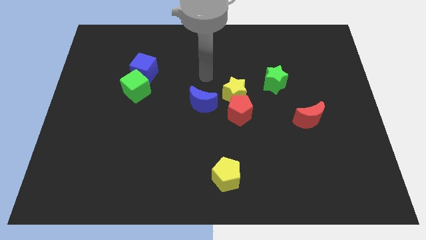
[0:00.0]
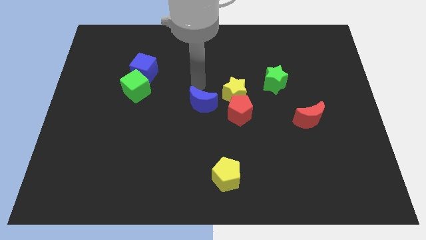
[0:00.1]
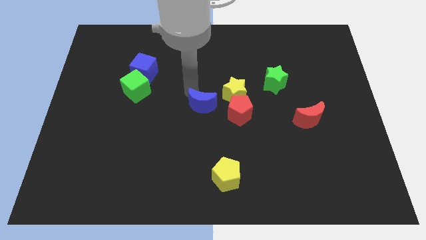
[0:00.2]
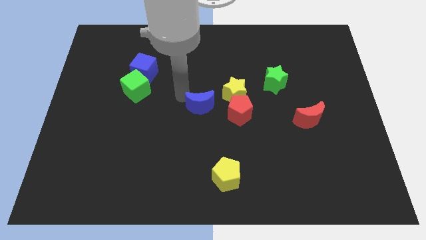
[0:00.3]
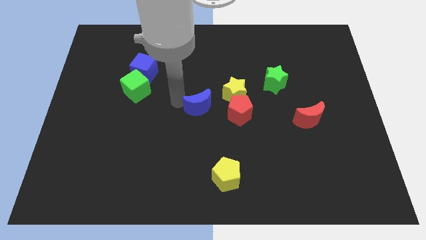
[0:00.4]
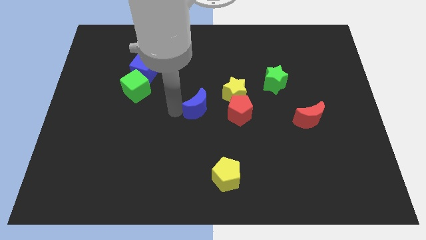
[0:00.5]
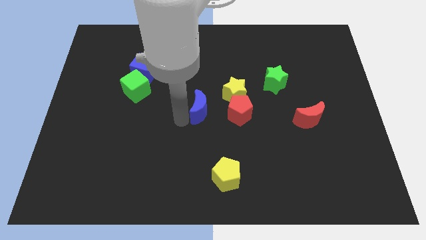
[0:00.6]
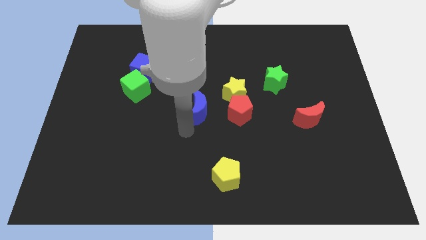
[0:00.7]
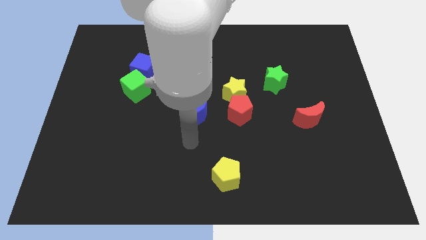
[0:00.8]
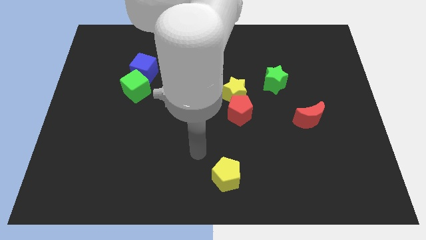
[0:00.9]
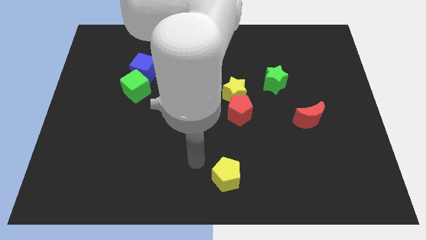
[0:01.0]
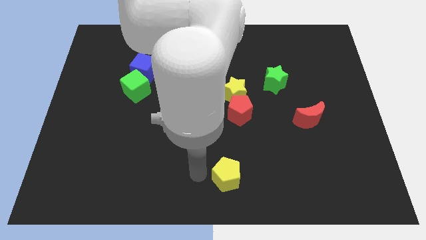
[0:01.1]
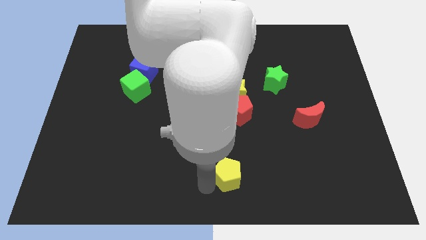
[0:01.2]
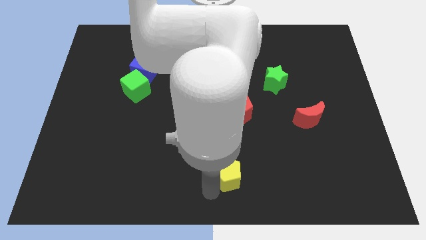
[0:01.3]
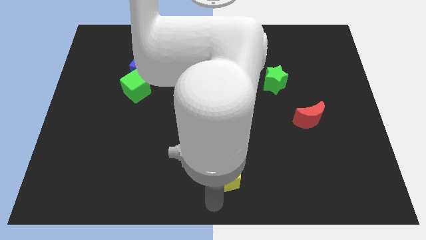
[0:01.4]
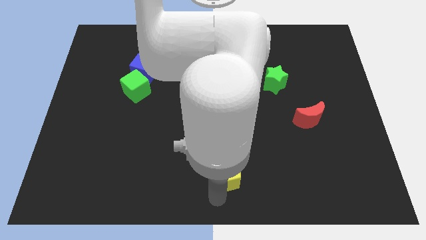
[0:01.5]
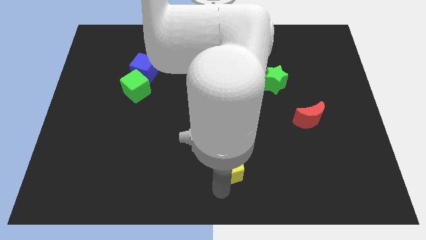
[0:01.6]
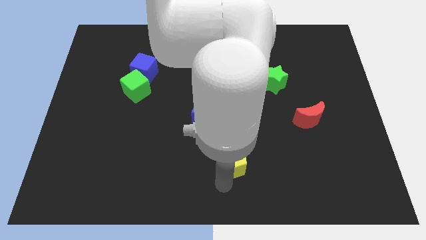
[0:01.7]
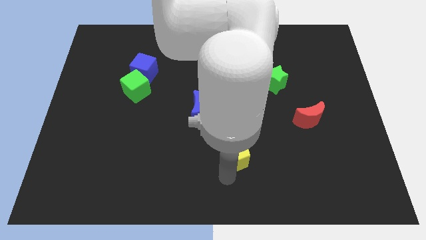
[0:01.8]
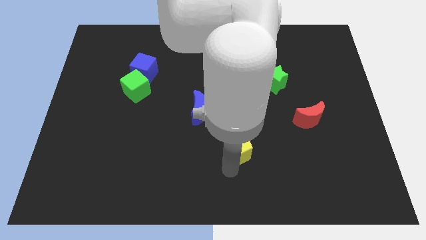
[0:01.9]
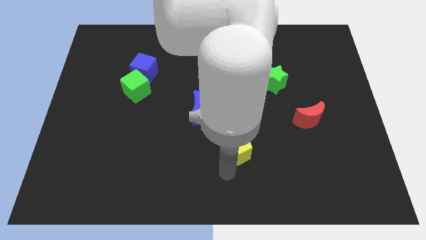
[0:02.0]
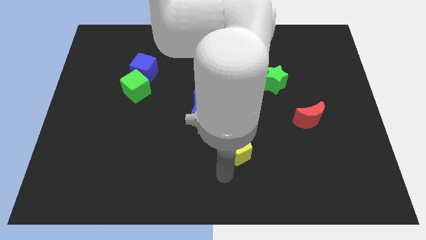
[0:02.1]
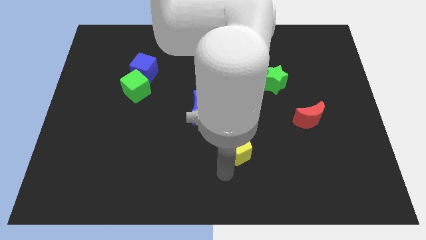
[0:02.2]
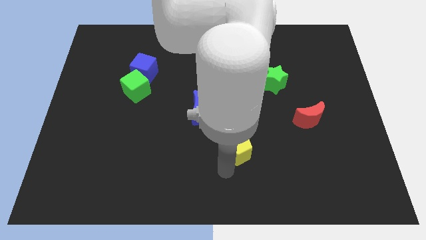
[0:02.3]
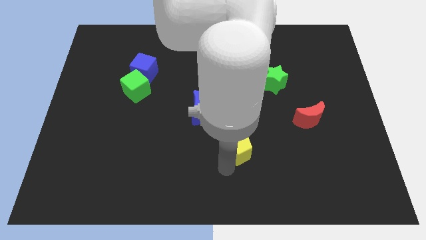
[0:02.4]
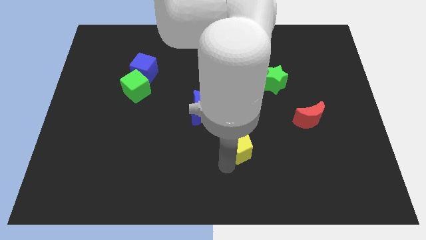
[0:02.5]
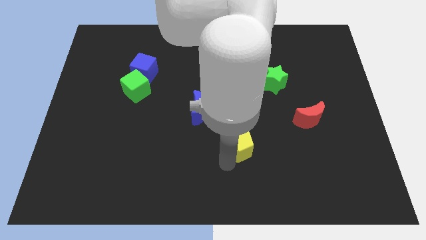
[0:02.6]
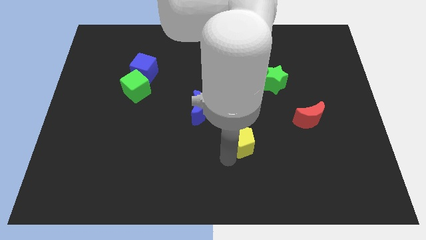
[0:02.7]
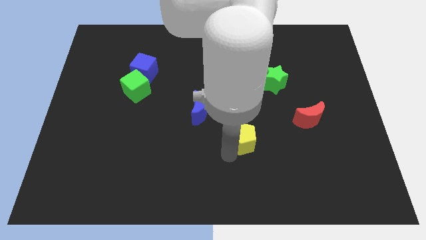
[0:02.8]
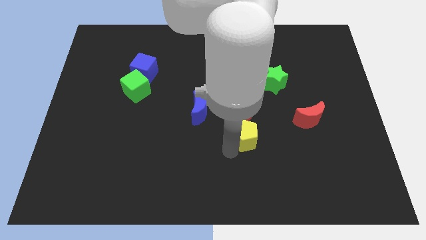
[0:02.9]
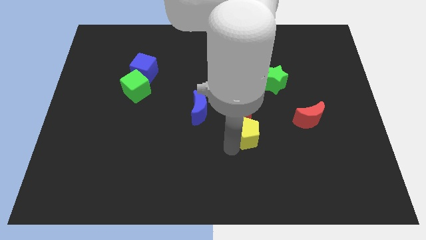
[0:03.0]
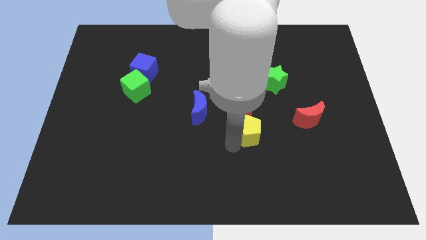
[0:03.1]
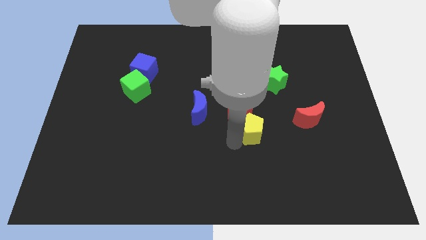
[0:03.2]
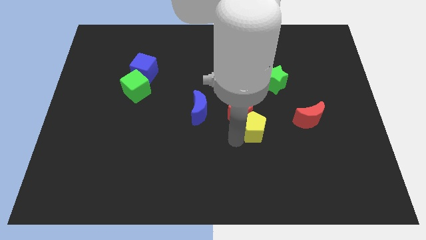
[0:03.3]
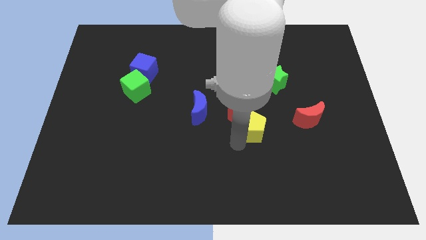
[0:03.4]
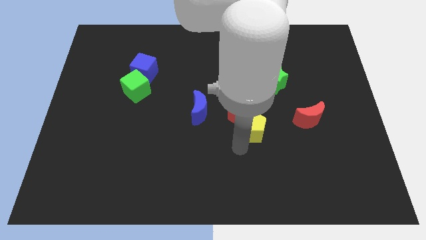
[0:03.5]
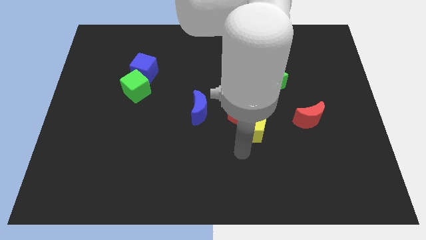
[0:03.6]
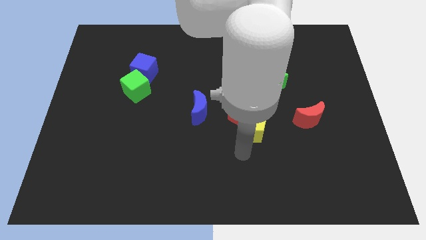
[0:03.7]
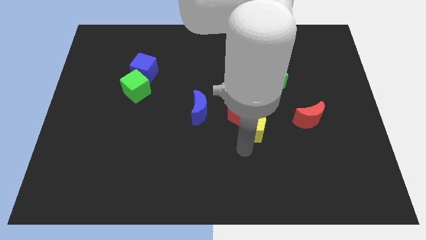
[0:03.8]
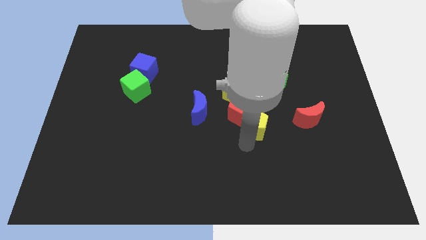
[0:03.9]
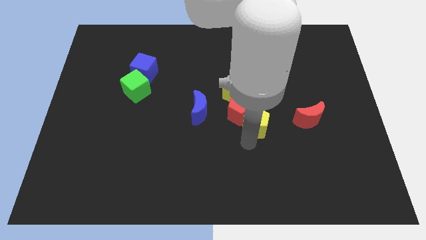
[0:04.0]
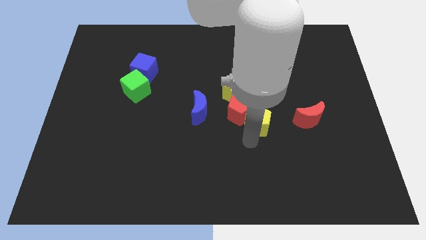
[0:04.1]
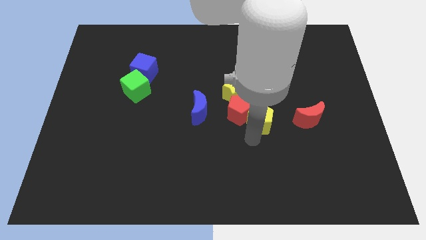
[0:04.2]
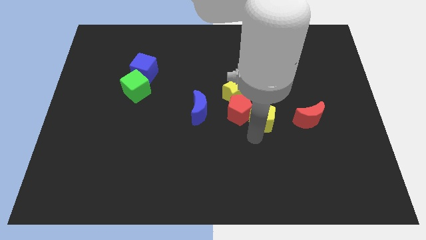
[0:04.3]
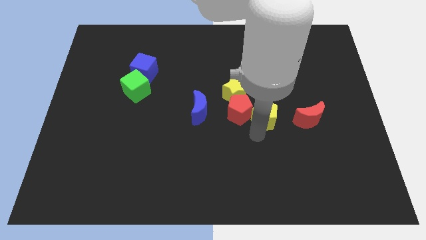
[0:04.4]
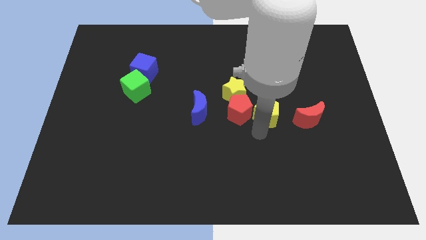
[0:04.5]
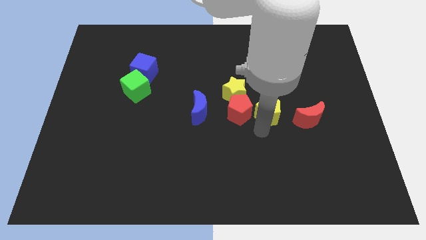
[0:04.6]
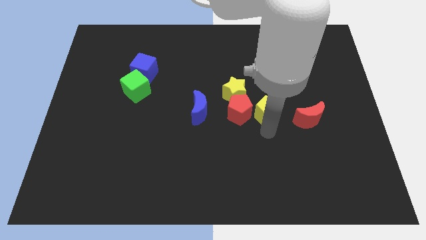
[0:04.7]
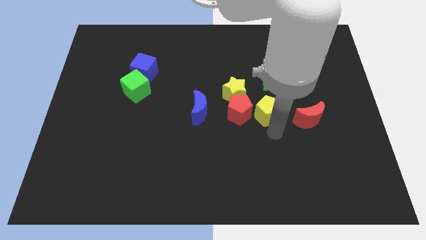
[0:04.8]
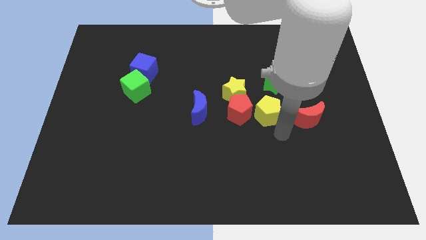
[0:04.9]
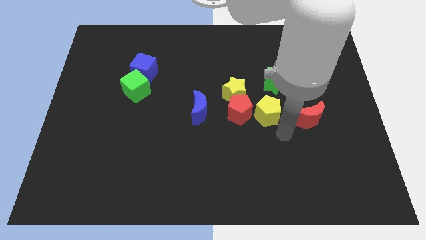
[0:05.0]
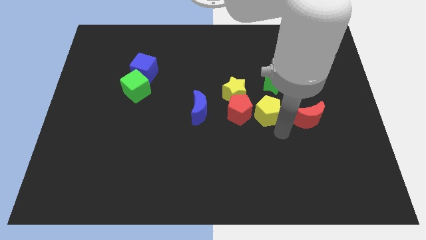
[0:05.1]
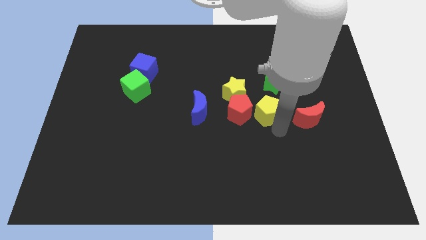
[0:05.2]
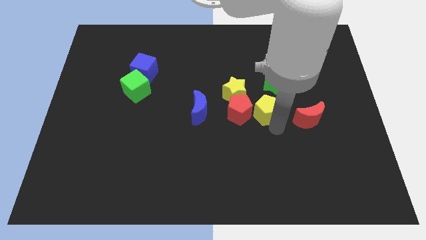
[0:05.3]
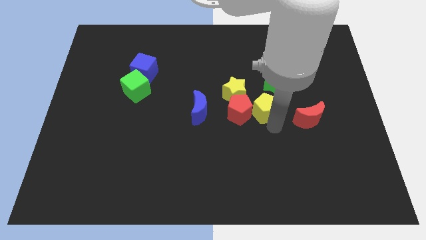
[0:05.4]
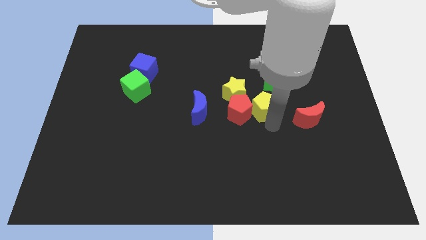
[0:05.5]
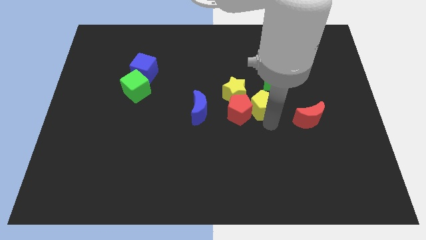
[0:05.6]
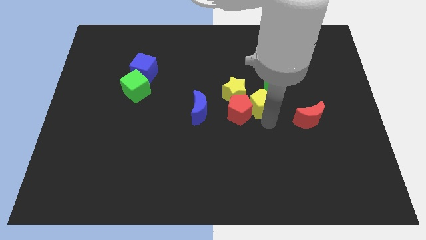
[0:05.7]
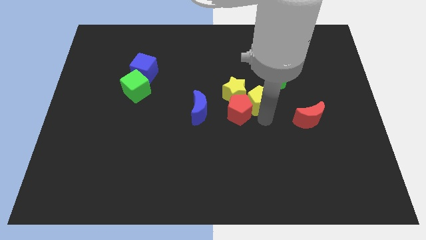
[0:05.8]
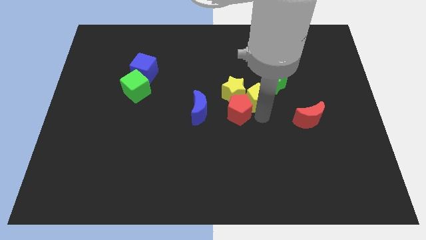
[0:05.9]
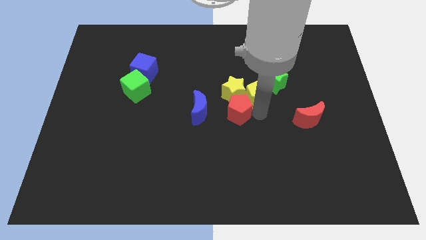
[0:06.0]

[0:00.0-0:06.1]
push the yellow pentagon to the top of the red pentagon
